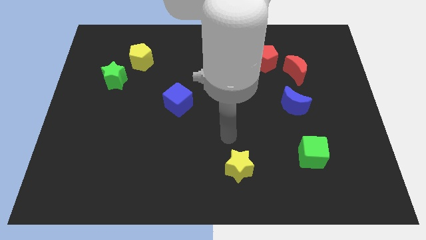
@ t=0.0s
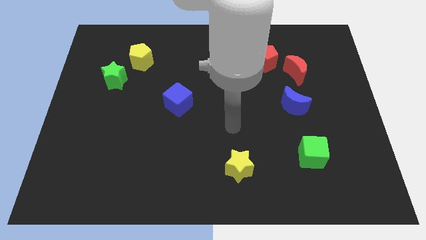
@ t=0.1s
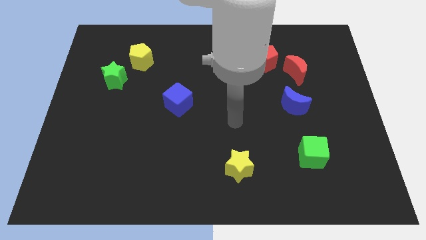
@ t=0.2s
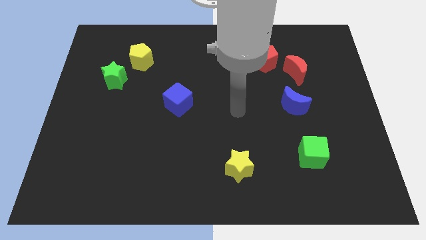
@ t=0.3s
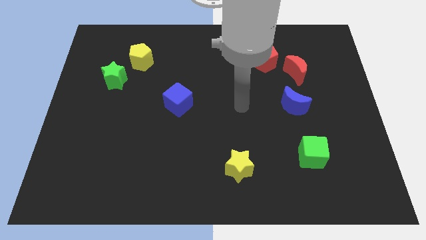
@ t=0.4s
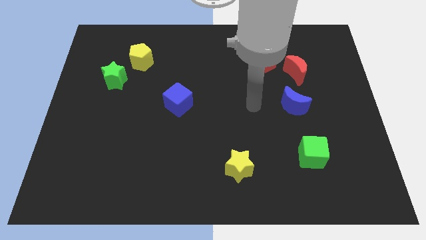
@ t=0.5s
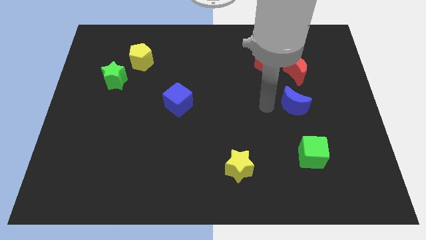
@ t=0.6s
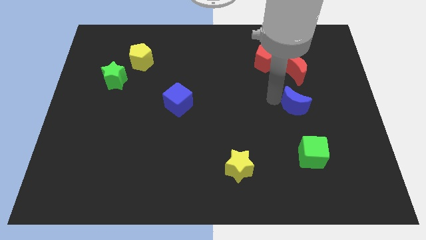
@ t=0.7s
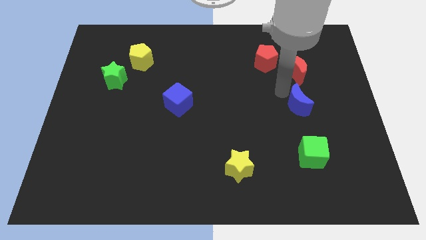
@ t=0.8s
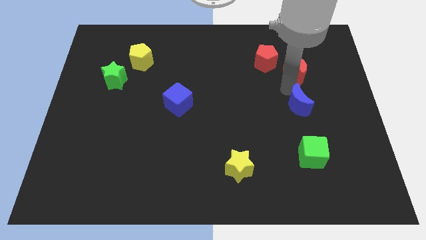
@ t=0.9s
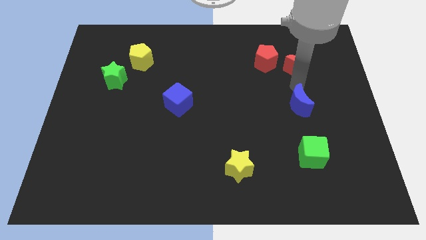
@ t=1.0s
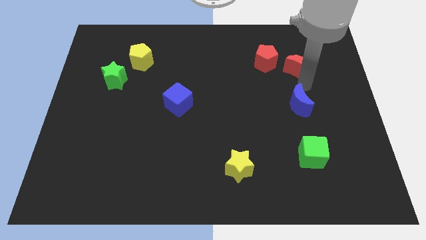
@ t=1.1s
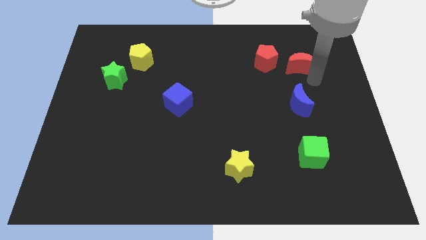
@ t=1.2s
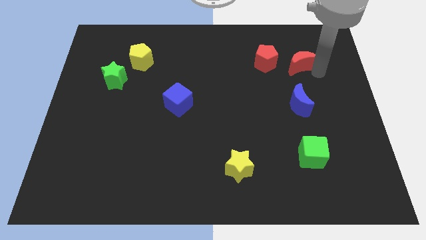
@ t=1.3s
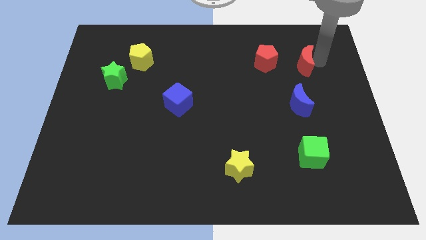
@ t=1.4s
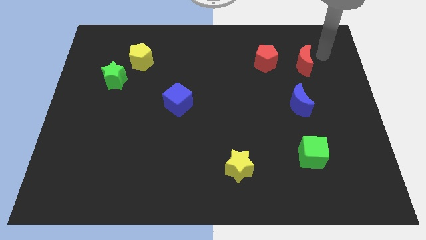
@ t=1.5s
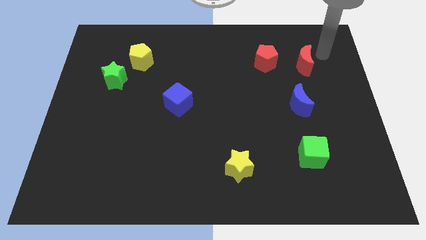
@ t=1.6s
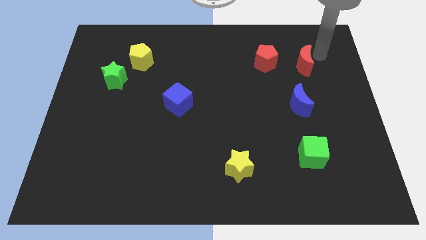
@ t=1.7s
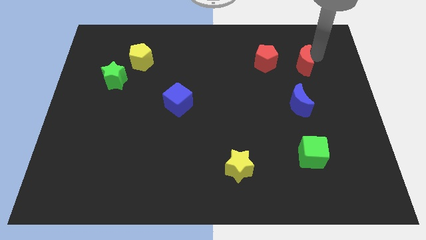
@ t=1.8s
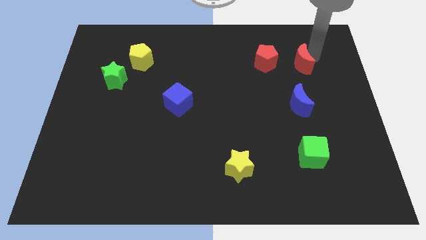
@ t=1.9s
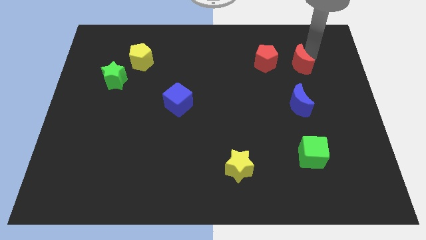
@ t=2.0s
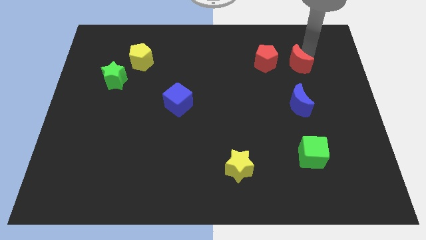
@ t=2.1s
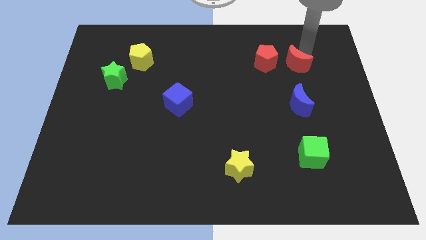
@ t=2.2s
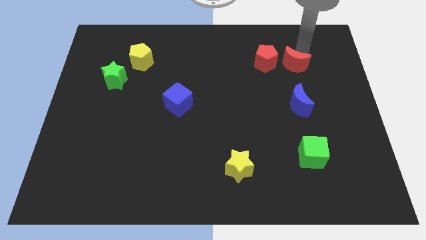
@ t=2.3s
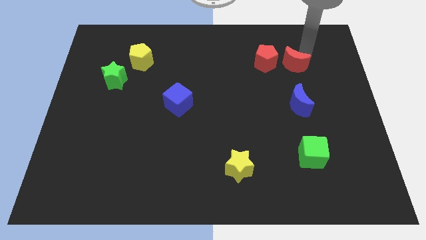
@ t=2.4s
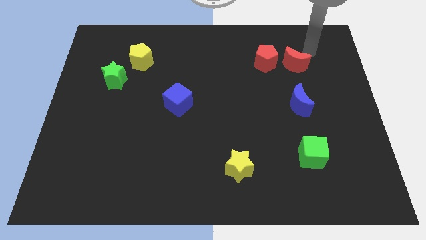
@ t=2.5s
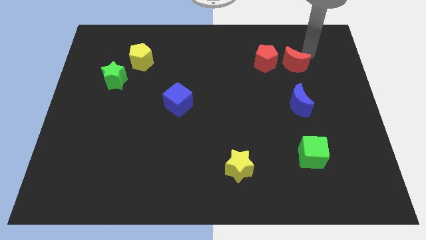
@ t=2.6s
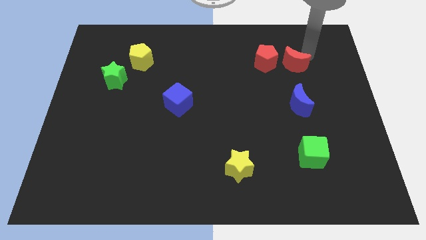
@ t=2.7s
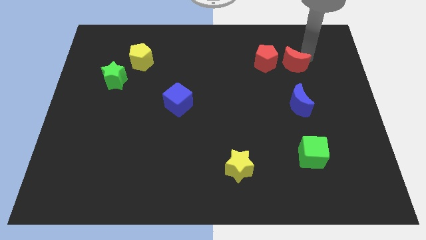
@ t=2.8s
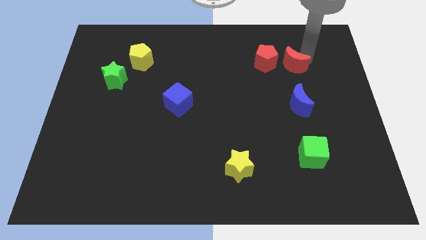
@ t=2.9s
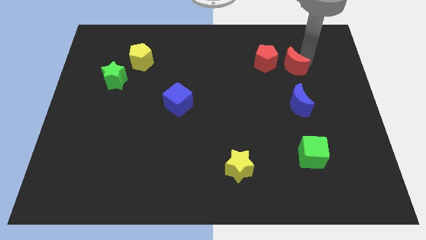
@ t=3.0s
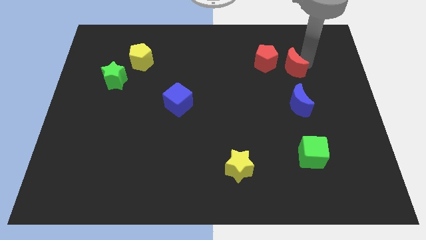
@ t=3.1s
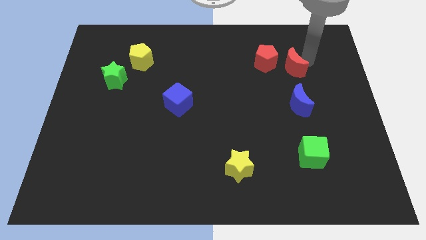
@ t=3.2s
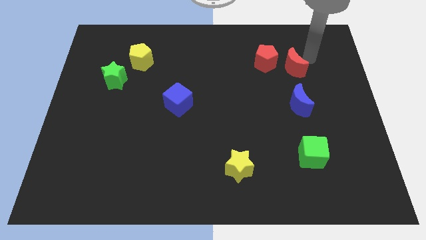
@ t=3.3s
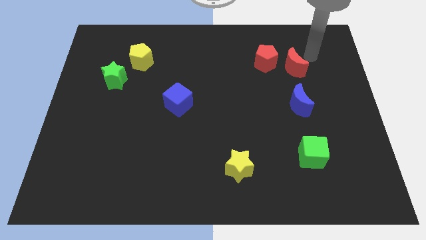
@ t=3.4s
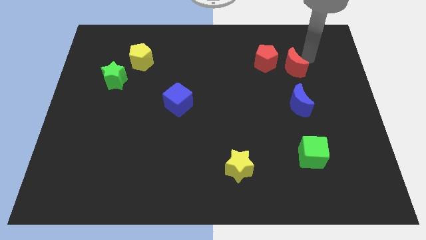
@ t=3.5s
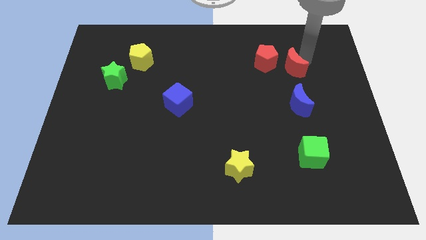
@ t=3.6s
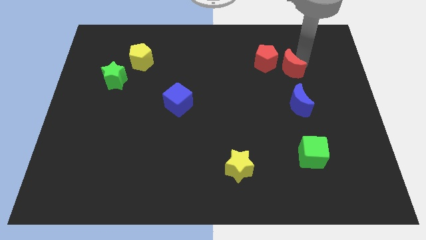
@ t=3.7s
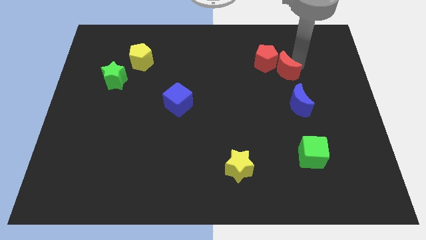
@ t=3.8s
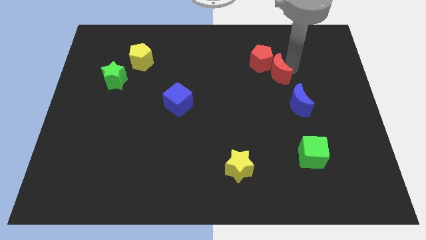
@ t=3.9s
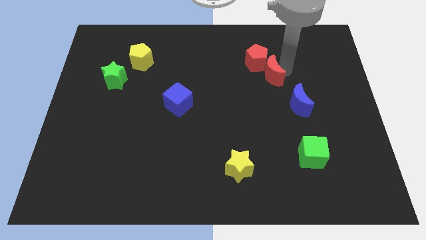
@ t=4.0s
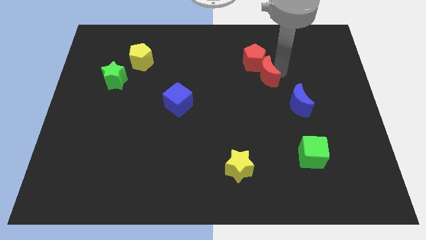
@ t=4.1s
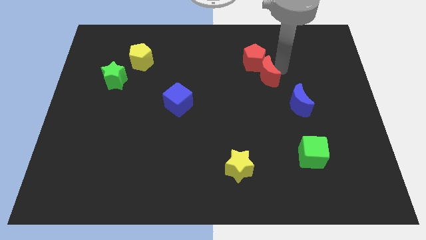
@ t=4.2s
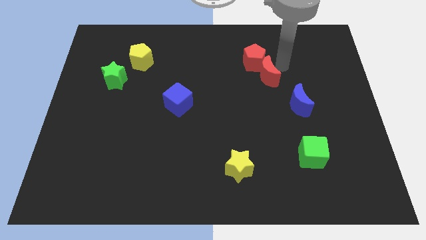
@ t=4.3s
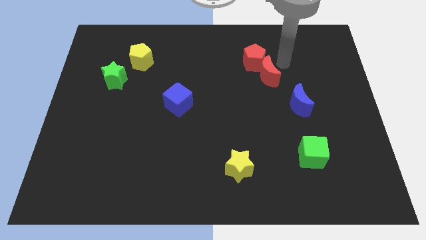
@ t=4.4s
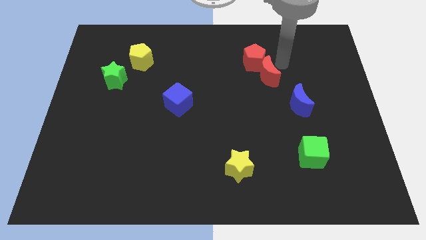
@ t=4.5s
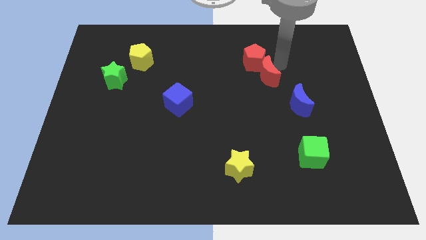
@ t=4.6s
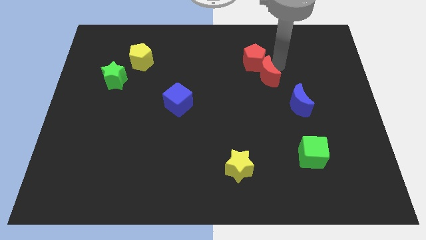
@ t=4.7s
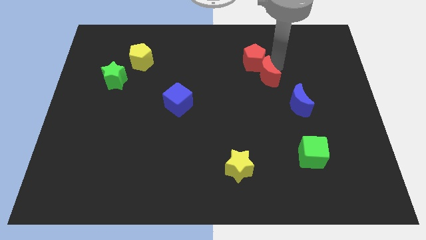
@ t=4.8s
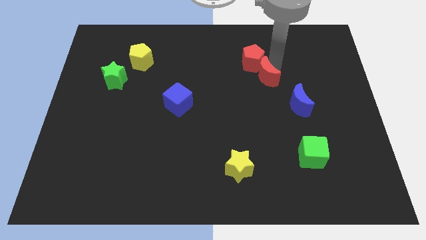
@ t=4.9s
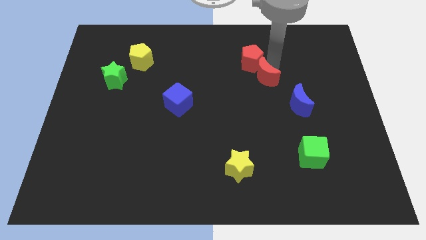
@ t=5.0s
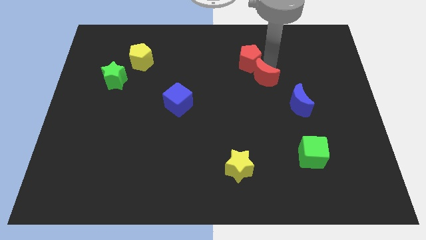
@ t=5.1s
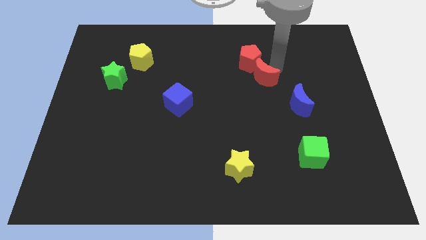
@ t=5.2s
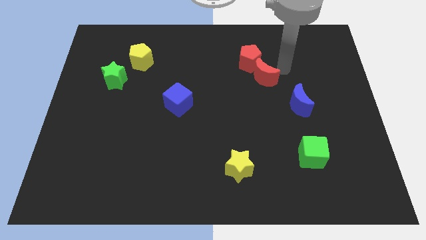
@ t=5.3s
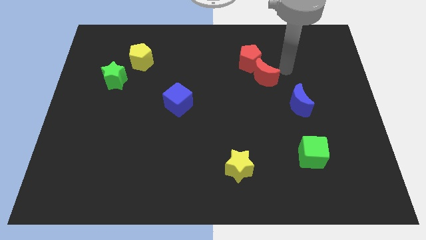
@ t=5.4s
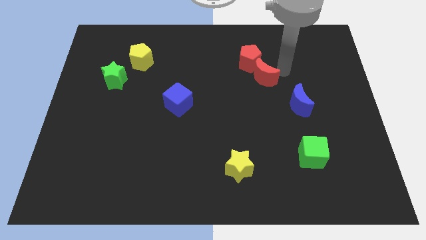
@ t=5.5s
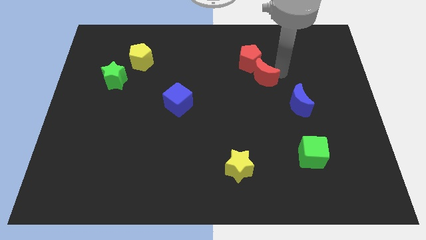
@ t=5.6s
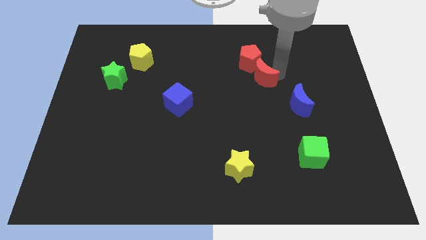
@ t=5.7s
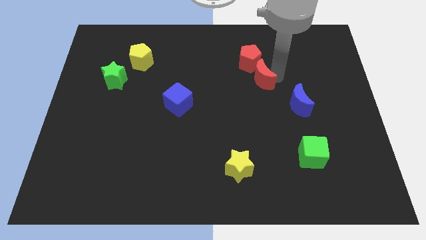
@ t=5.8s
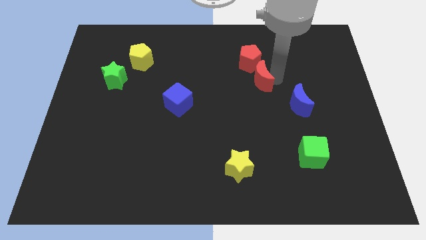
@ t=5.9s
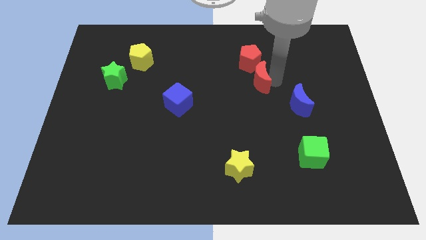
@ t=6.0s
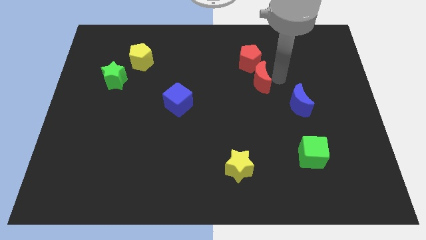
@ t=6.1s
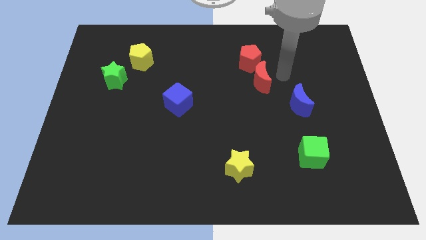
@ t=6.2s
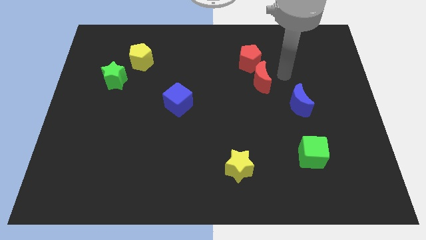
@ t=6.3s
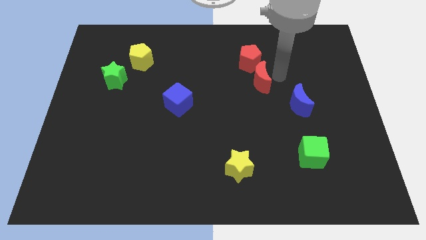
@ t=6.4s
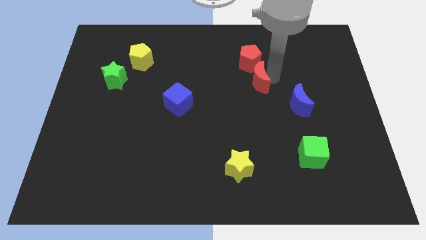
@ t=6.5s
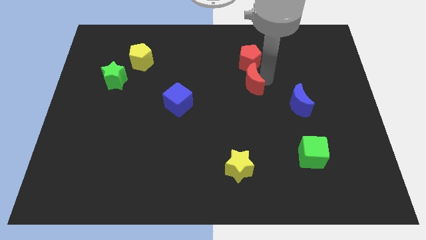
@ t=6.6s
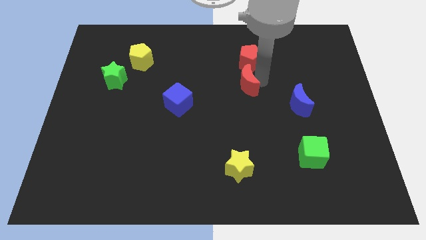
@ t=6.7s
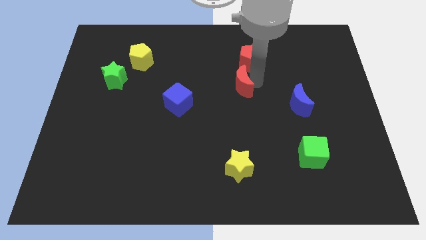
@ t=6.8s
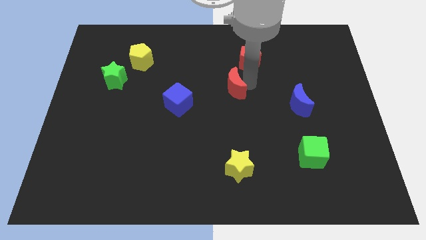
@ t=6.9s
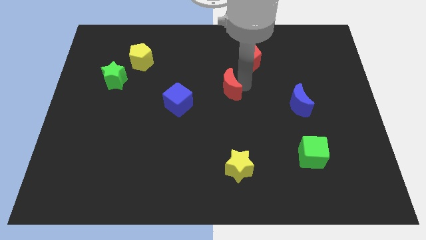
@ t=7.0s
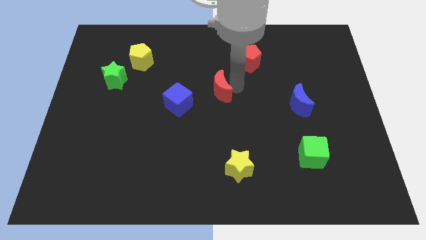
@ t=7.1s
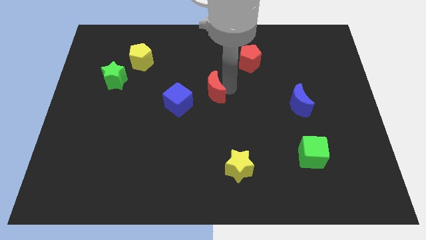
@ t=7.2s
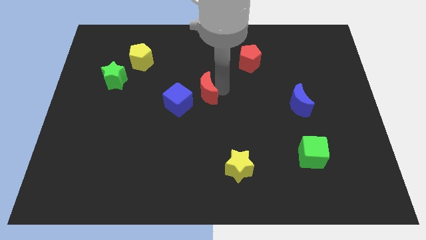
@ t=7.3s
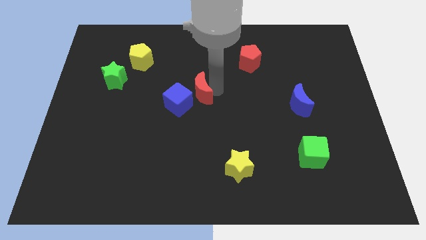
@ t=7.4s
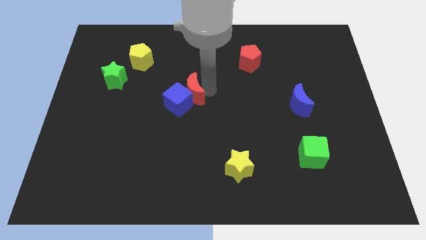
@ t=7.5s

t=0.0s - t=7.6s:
slide the red moon towards the blue cube
